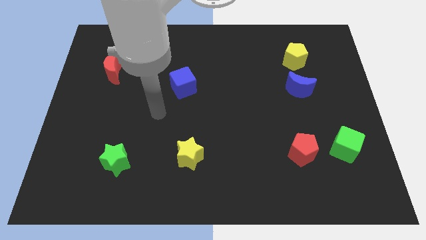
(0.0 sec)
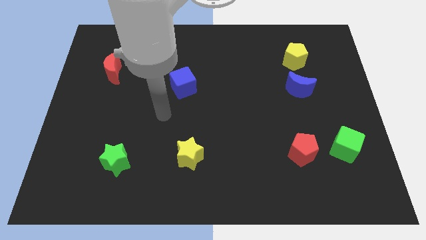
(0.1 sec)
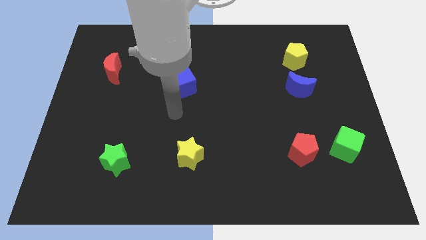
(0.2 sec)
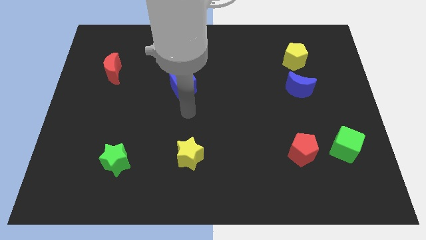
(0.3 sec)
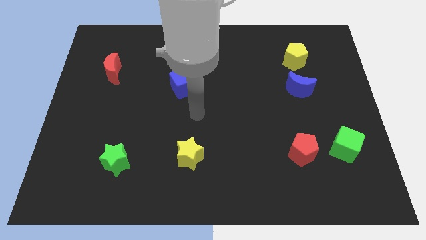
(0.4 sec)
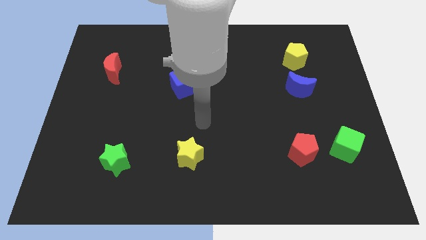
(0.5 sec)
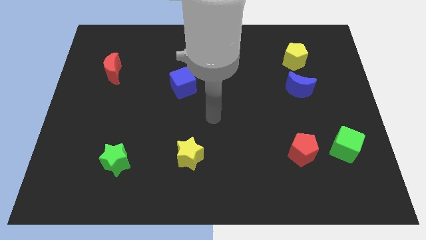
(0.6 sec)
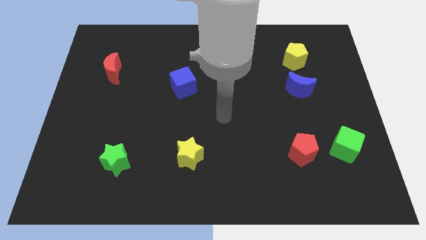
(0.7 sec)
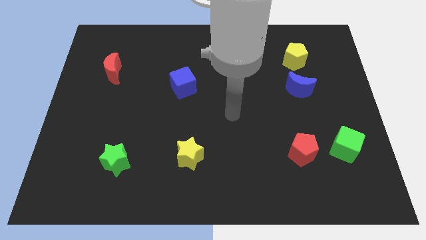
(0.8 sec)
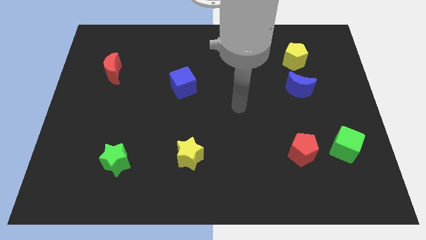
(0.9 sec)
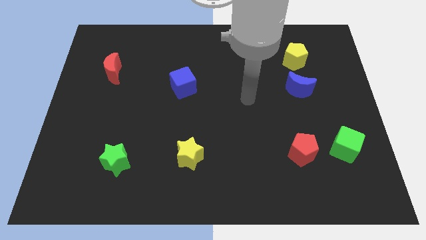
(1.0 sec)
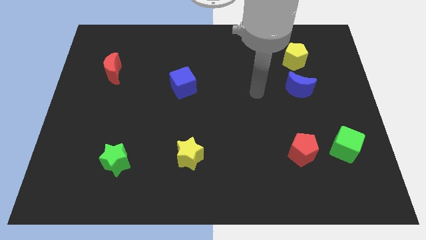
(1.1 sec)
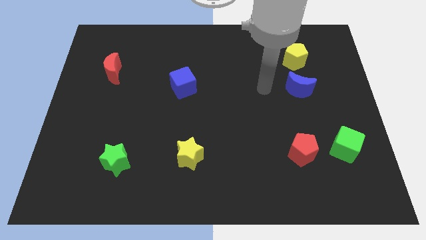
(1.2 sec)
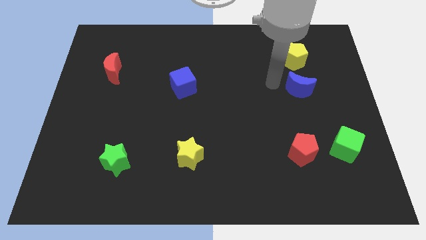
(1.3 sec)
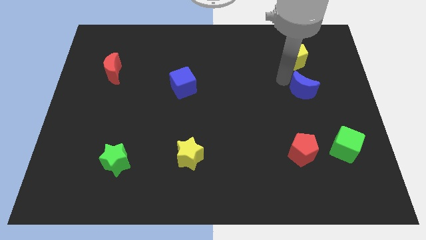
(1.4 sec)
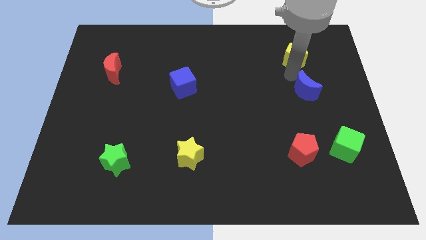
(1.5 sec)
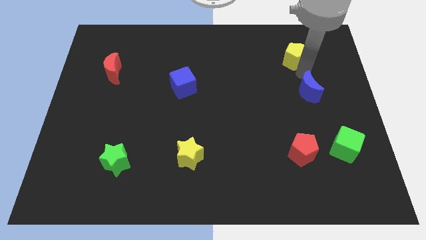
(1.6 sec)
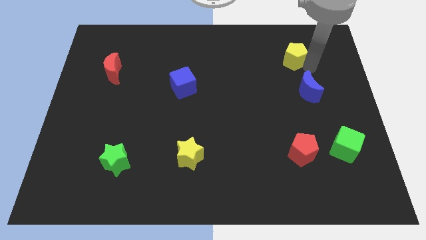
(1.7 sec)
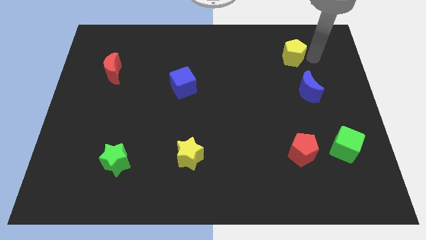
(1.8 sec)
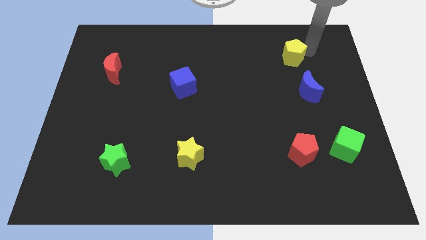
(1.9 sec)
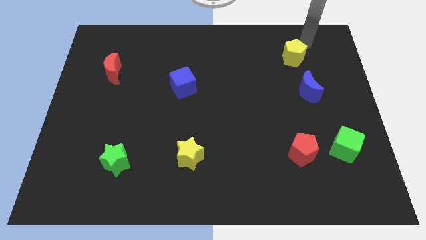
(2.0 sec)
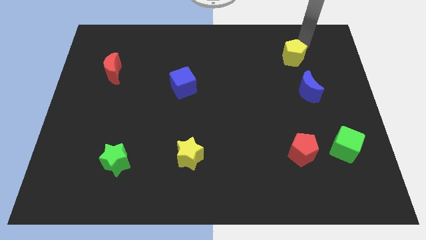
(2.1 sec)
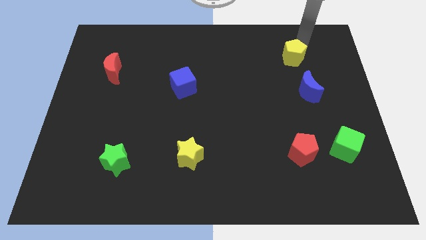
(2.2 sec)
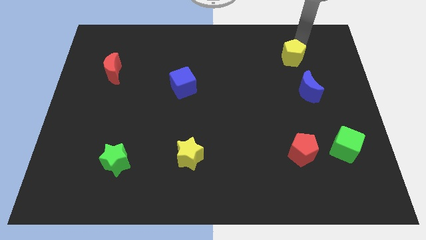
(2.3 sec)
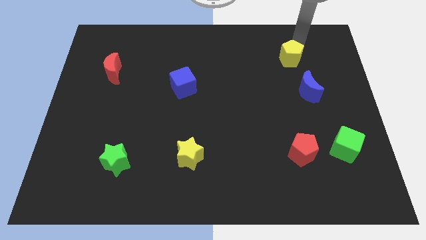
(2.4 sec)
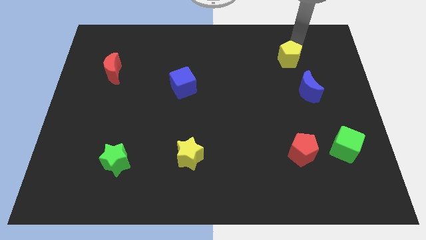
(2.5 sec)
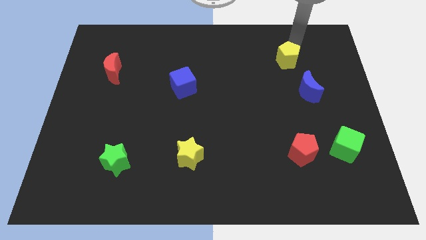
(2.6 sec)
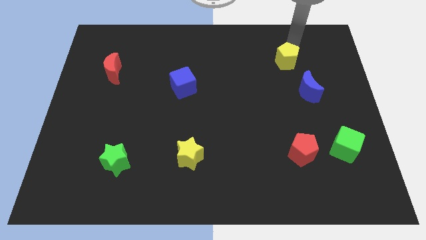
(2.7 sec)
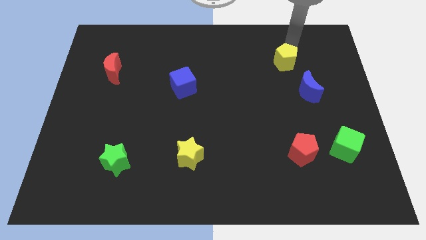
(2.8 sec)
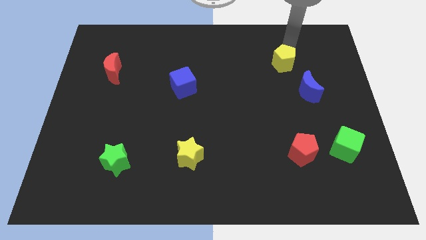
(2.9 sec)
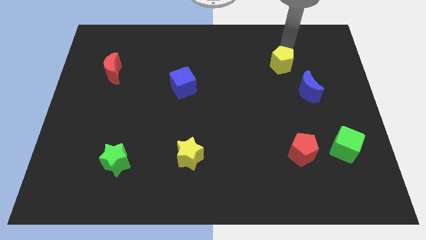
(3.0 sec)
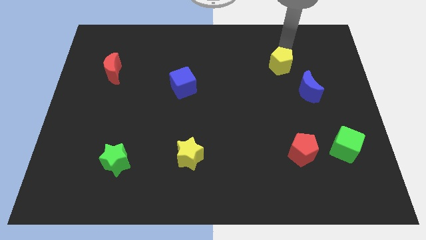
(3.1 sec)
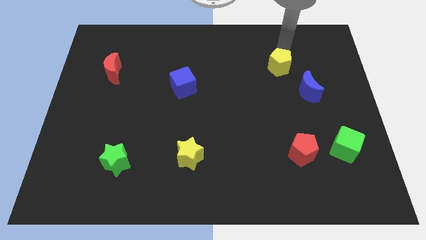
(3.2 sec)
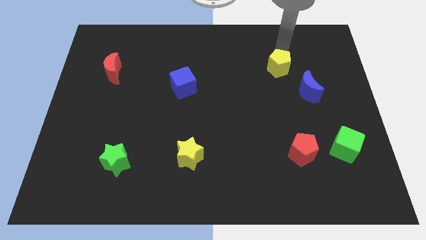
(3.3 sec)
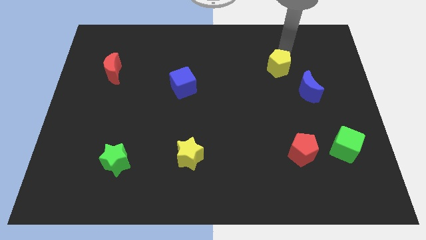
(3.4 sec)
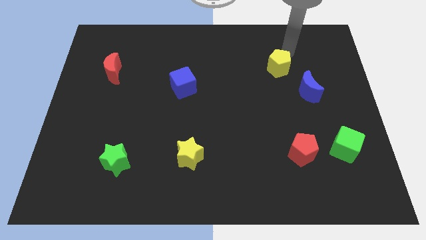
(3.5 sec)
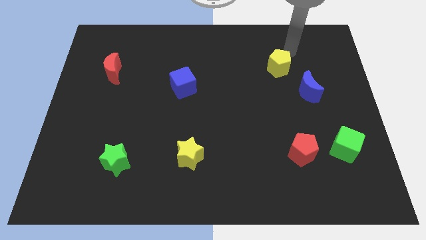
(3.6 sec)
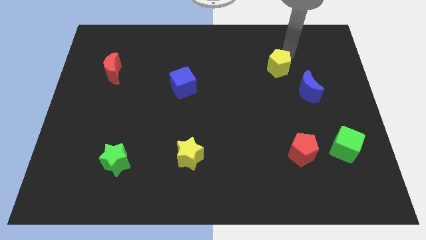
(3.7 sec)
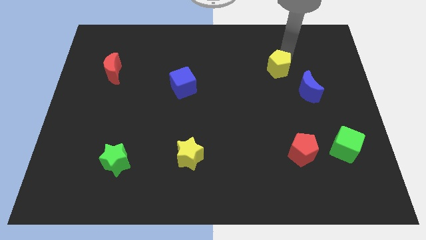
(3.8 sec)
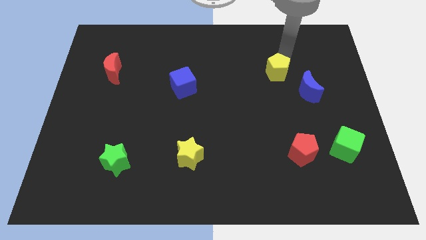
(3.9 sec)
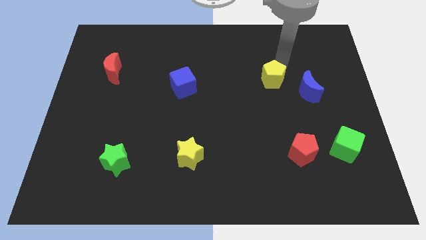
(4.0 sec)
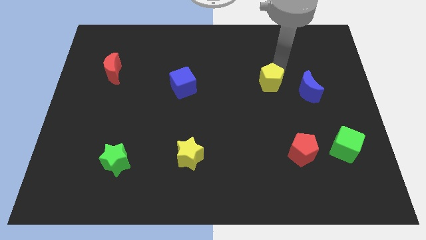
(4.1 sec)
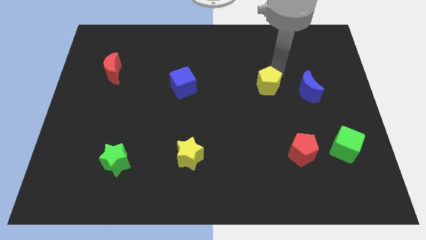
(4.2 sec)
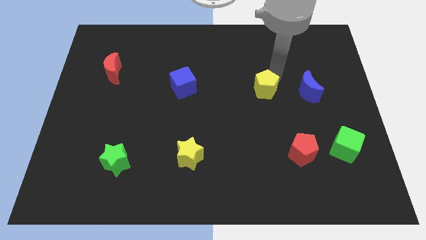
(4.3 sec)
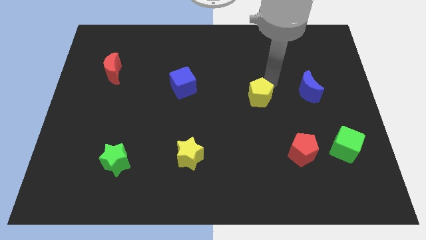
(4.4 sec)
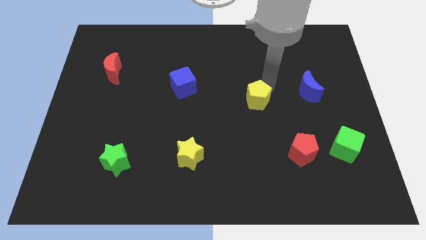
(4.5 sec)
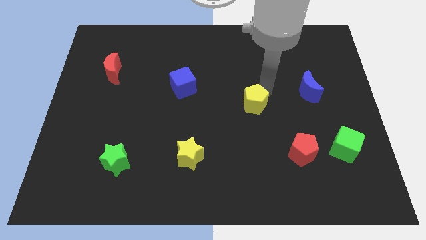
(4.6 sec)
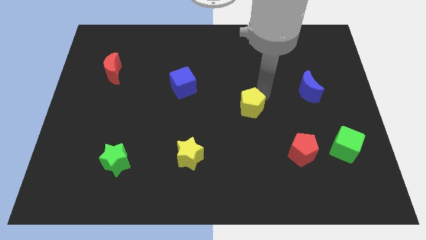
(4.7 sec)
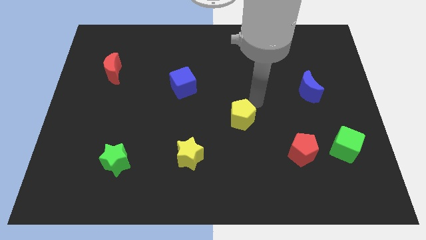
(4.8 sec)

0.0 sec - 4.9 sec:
push the yellow pentagon downwards and left

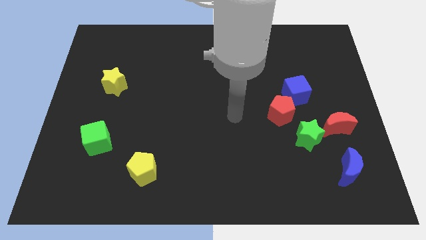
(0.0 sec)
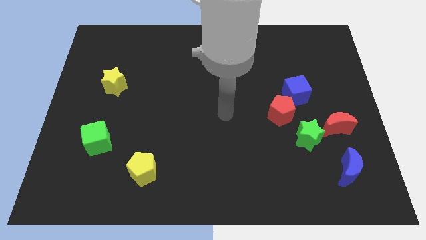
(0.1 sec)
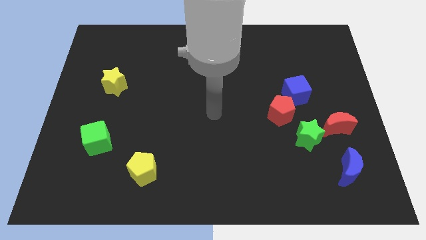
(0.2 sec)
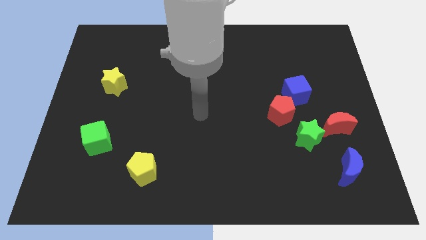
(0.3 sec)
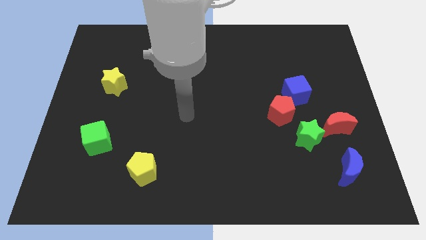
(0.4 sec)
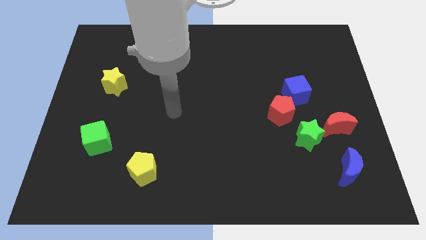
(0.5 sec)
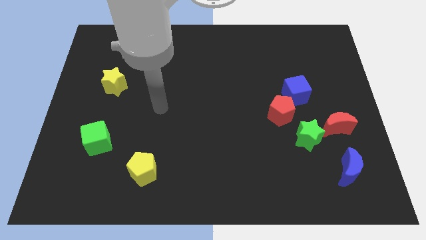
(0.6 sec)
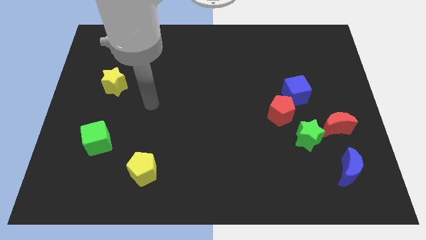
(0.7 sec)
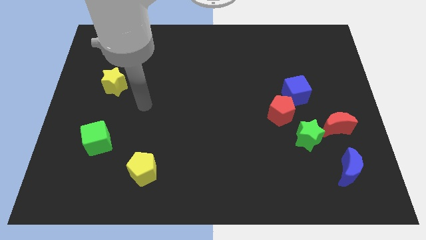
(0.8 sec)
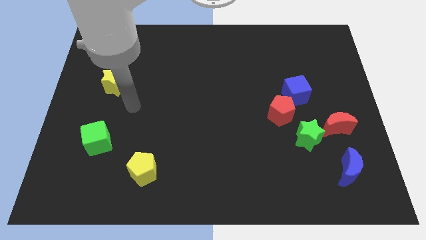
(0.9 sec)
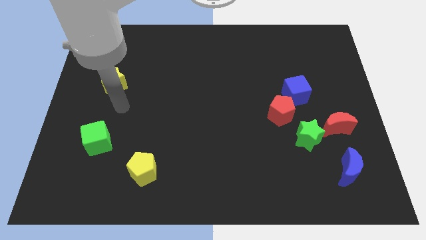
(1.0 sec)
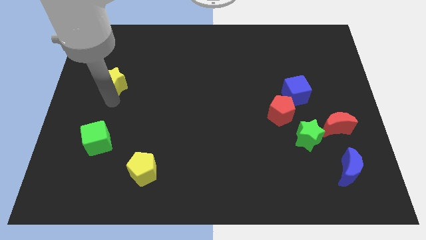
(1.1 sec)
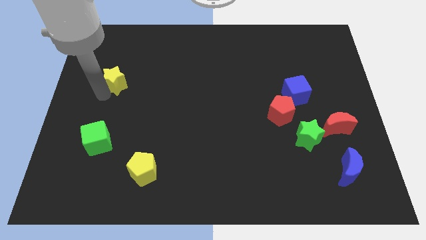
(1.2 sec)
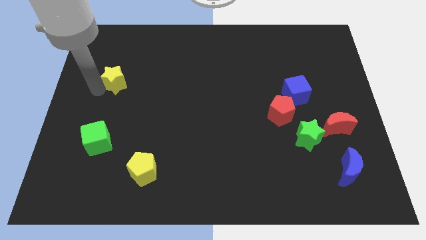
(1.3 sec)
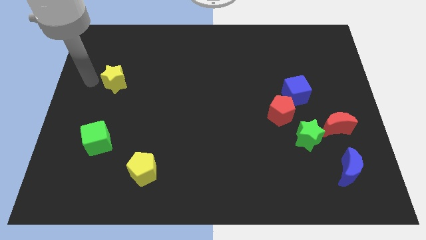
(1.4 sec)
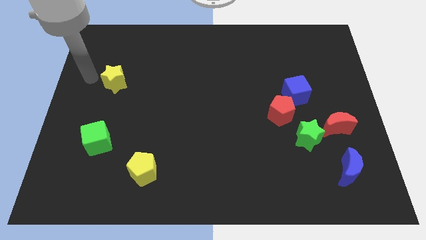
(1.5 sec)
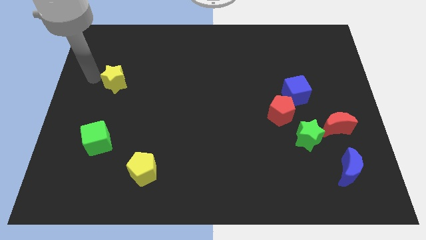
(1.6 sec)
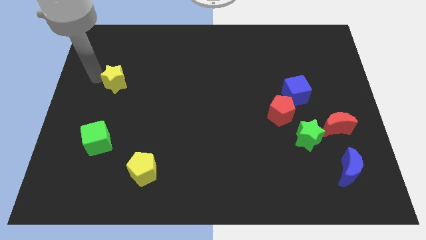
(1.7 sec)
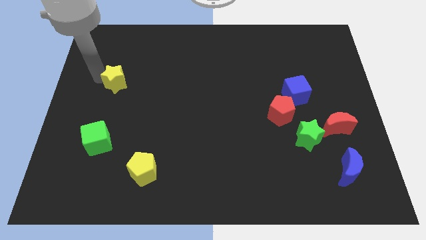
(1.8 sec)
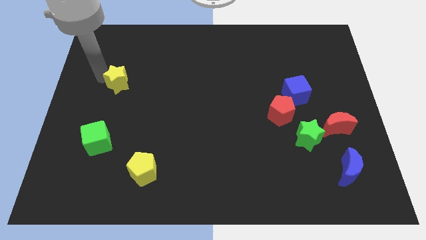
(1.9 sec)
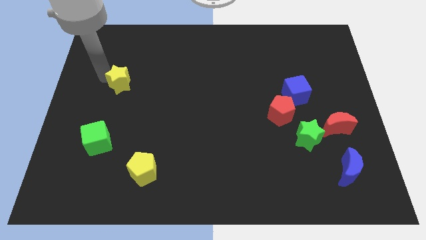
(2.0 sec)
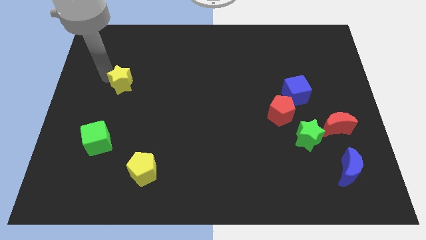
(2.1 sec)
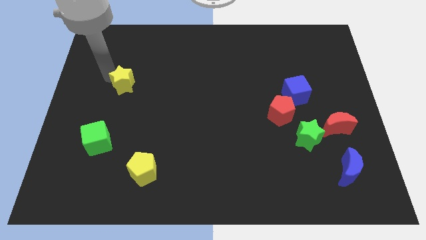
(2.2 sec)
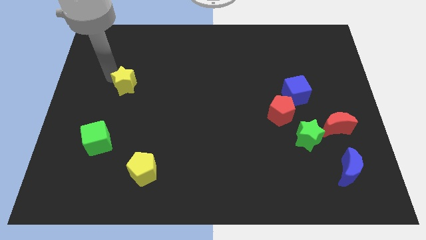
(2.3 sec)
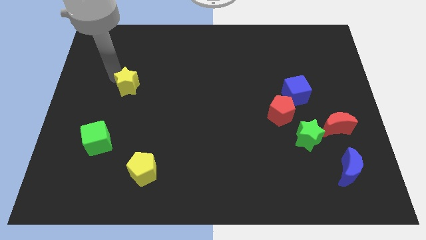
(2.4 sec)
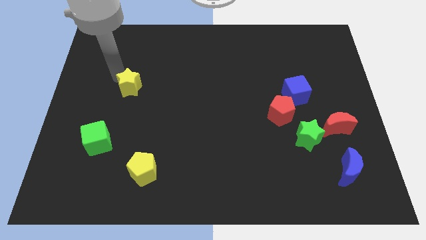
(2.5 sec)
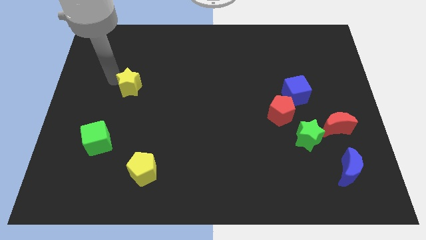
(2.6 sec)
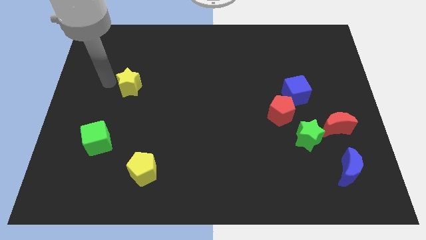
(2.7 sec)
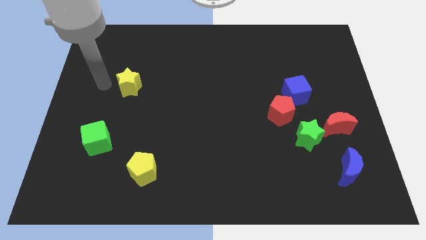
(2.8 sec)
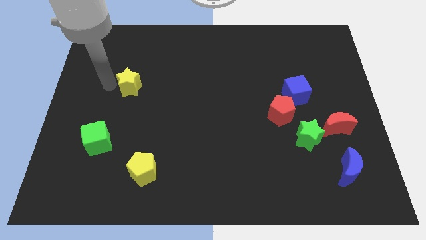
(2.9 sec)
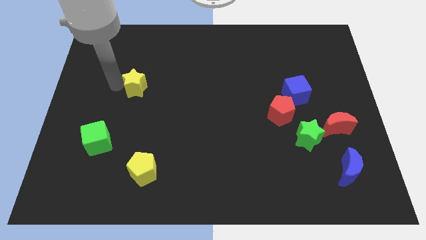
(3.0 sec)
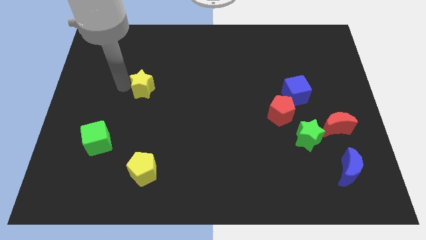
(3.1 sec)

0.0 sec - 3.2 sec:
slightly move the yellow star right
